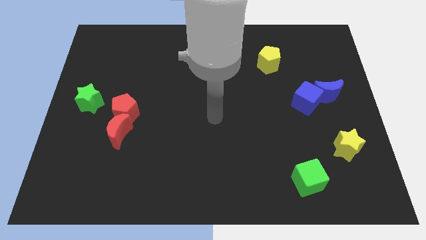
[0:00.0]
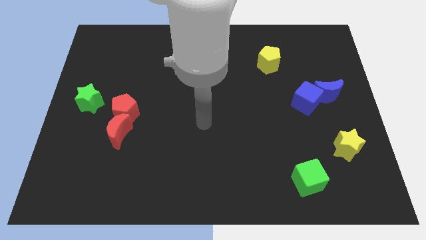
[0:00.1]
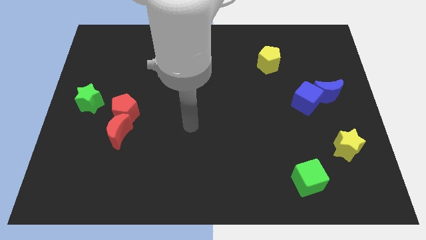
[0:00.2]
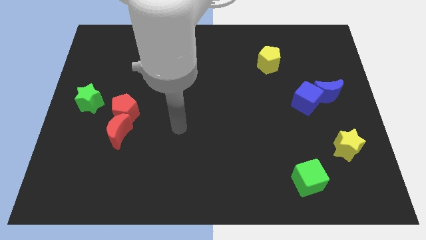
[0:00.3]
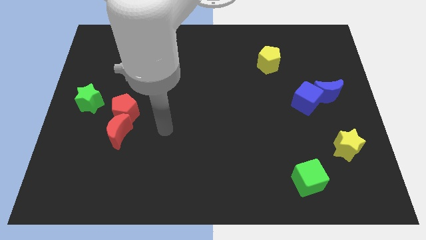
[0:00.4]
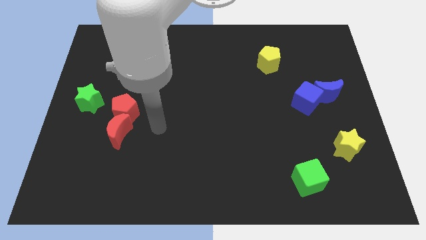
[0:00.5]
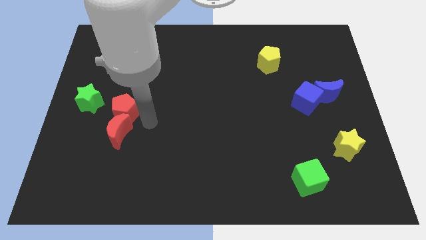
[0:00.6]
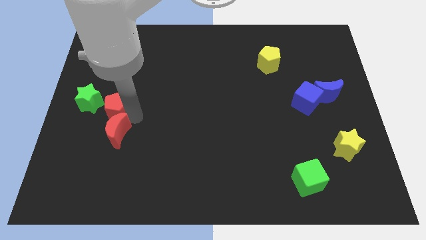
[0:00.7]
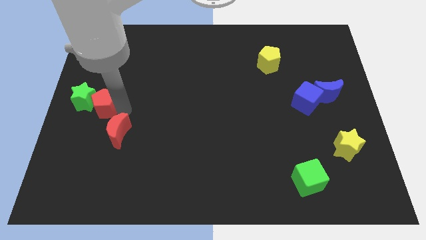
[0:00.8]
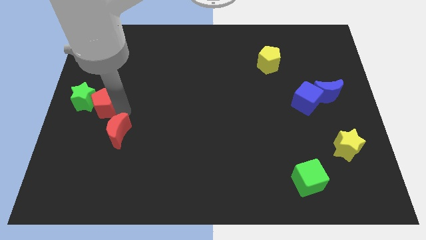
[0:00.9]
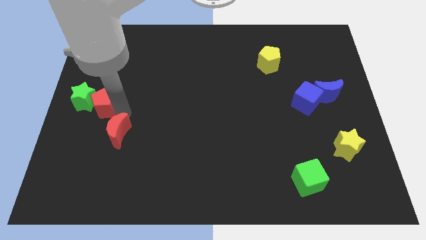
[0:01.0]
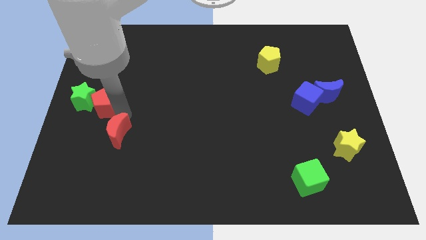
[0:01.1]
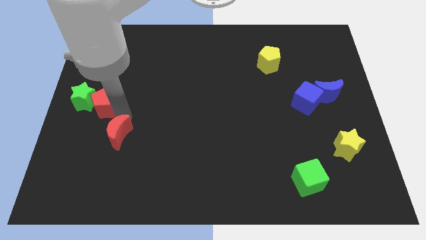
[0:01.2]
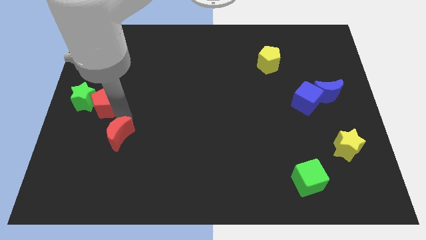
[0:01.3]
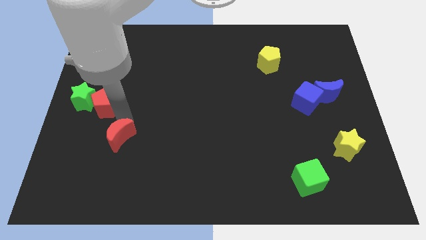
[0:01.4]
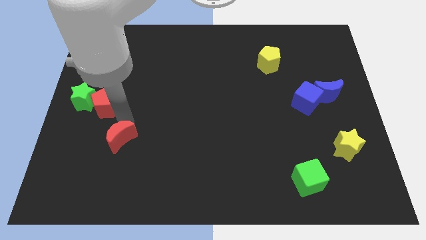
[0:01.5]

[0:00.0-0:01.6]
separate the red moon from the red pentagon

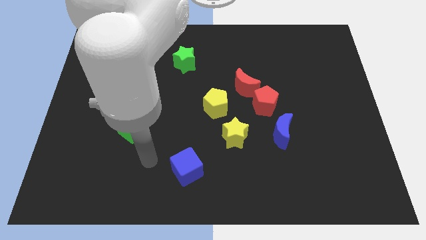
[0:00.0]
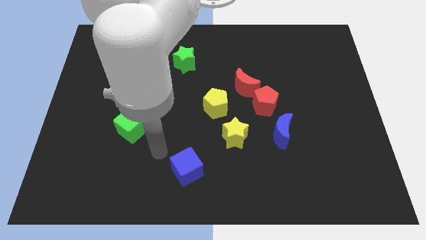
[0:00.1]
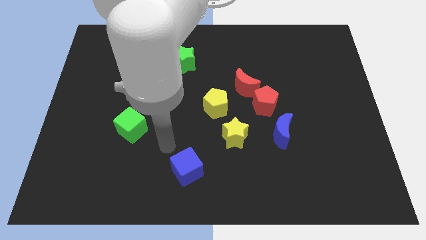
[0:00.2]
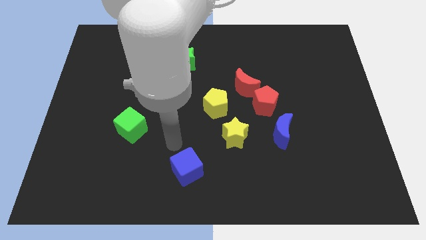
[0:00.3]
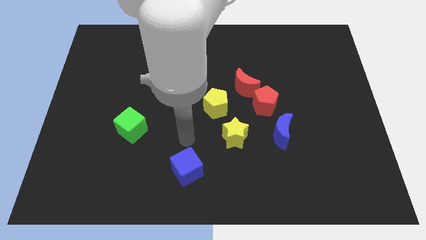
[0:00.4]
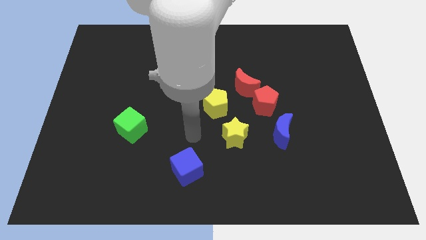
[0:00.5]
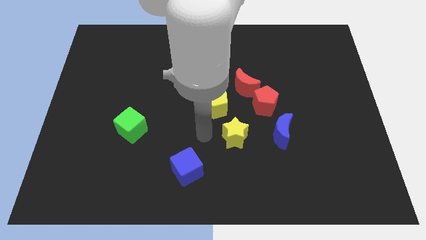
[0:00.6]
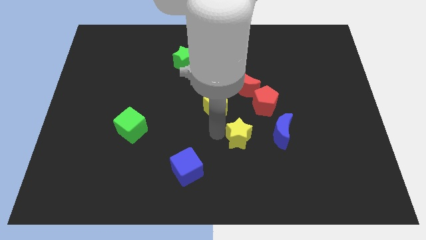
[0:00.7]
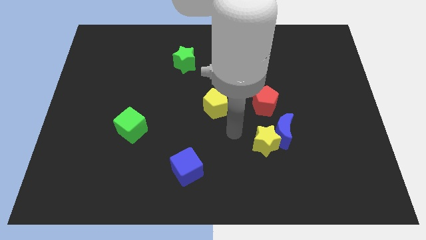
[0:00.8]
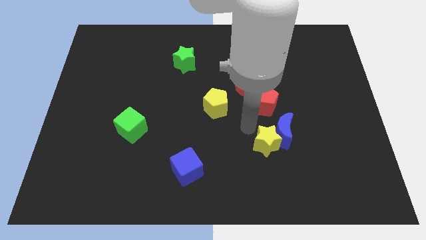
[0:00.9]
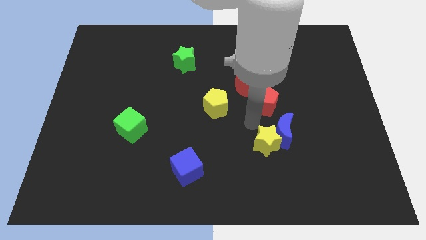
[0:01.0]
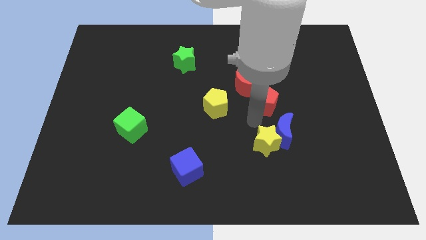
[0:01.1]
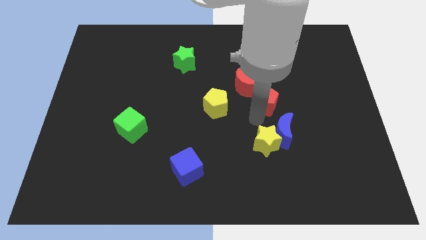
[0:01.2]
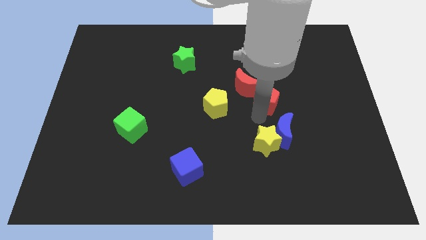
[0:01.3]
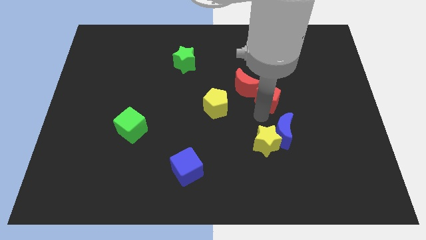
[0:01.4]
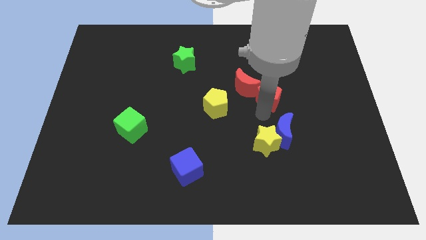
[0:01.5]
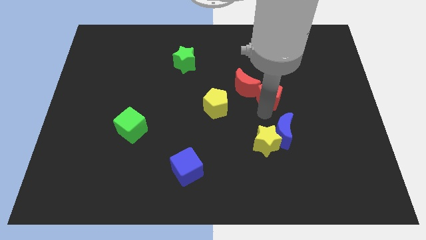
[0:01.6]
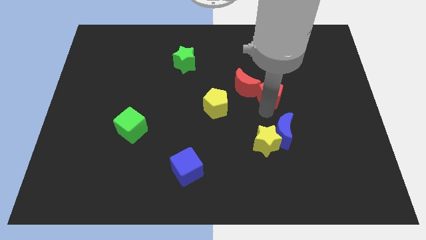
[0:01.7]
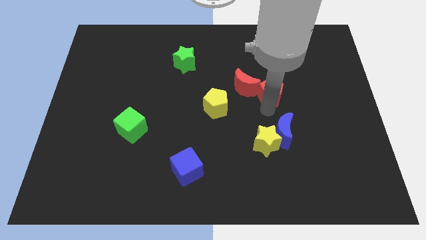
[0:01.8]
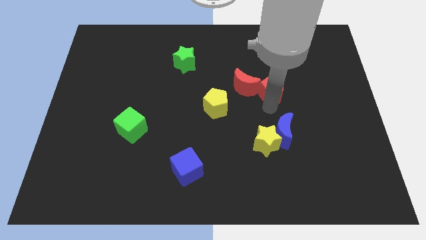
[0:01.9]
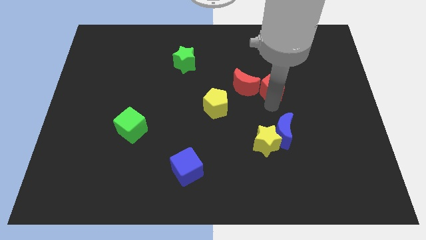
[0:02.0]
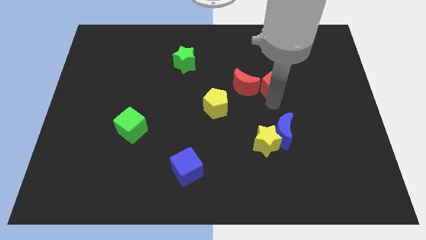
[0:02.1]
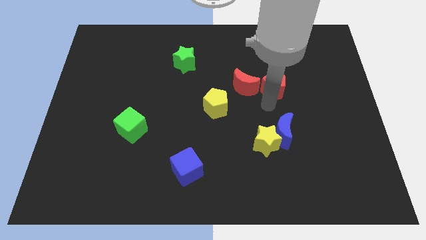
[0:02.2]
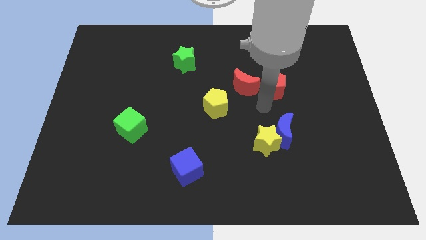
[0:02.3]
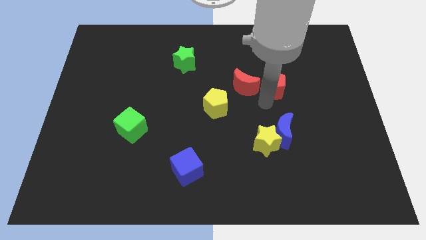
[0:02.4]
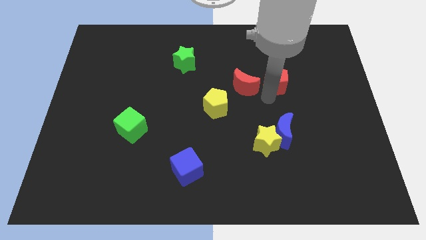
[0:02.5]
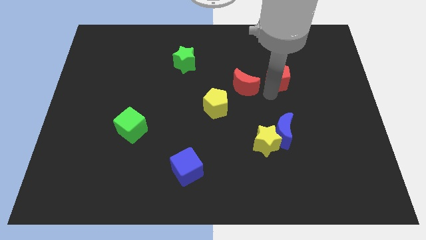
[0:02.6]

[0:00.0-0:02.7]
move the red pentagon away from the red moon and blue moon

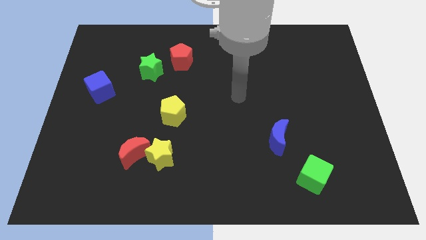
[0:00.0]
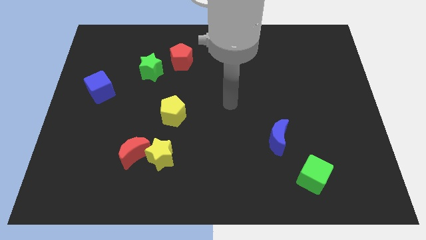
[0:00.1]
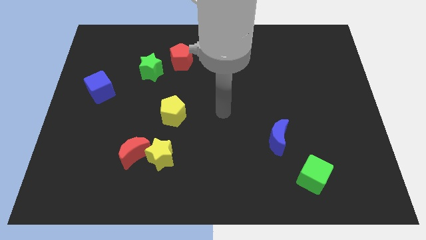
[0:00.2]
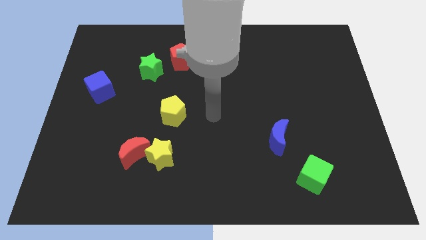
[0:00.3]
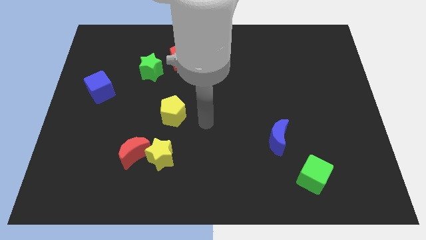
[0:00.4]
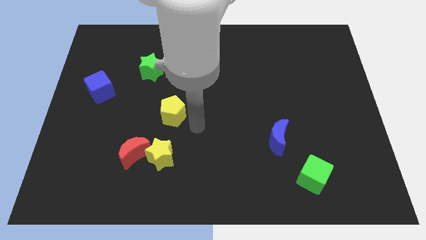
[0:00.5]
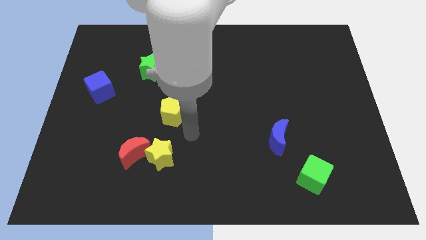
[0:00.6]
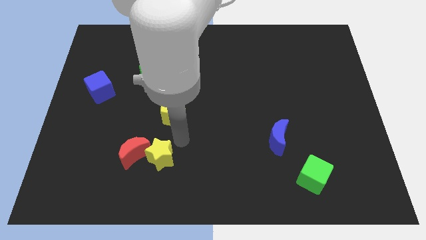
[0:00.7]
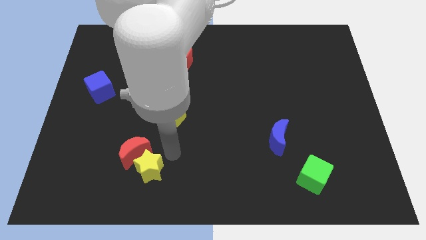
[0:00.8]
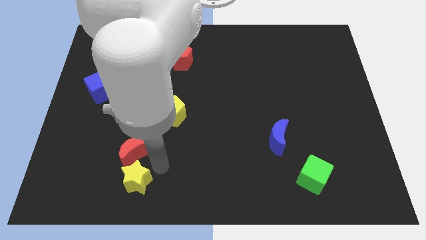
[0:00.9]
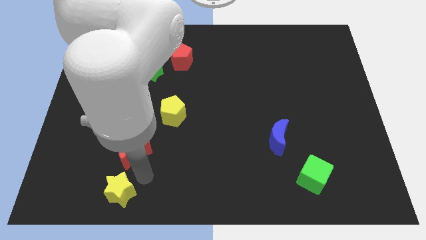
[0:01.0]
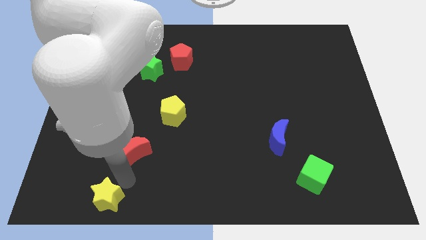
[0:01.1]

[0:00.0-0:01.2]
pull the red moon apart from the yellow star

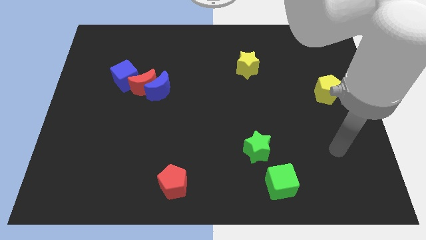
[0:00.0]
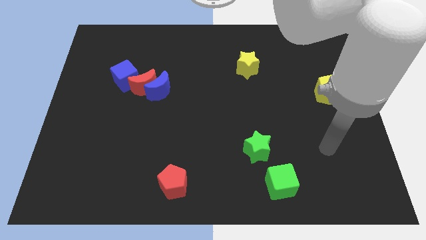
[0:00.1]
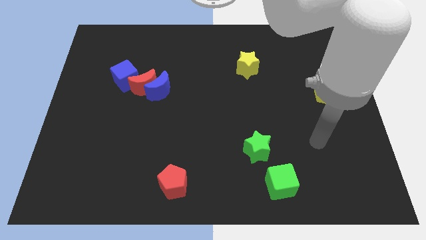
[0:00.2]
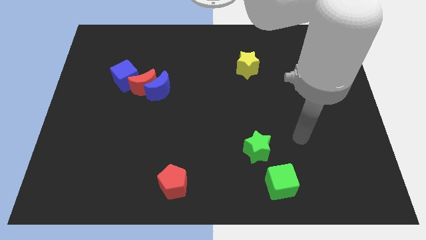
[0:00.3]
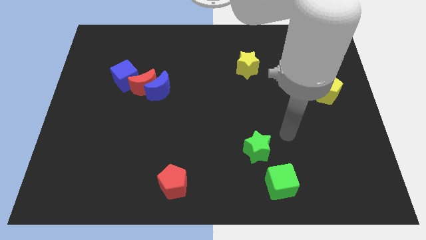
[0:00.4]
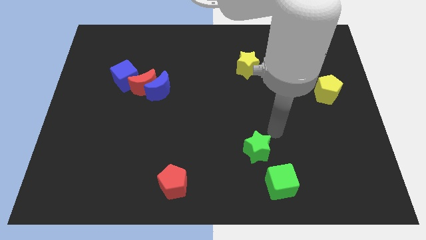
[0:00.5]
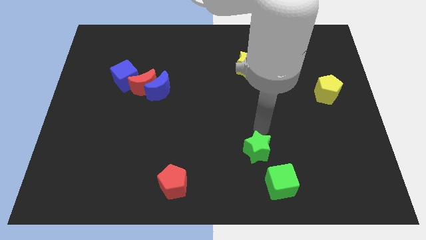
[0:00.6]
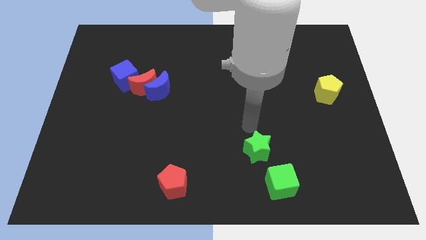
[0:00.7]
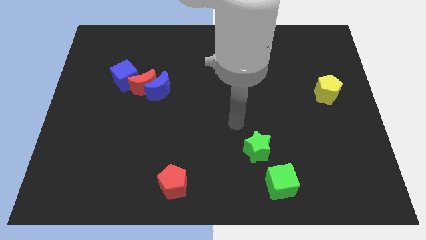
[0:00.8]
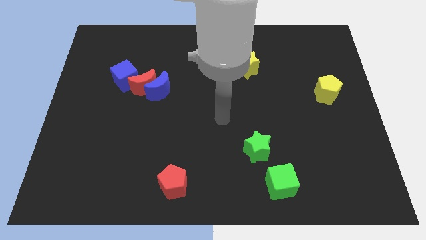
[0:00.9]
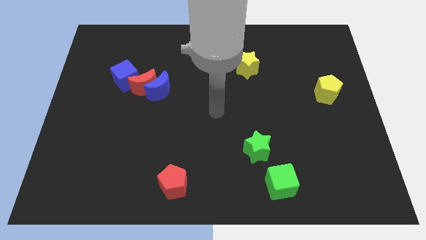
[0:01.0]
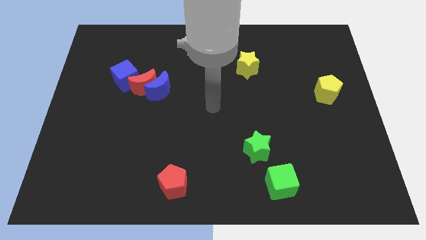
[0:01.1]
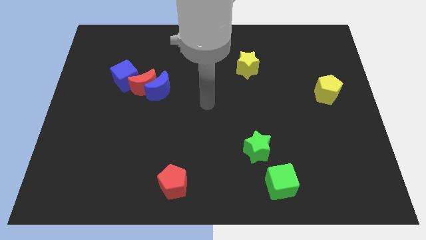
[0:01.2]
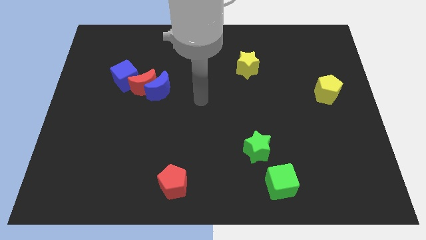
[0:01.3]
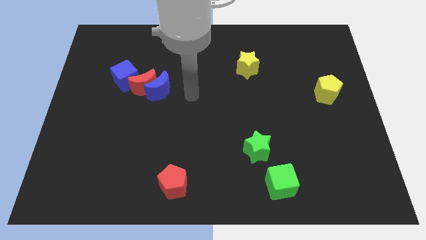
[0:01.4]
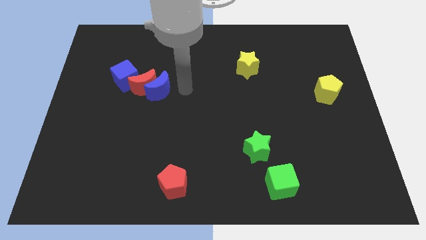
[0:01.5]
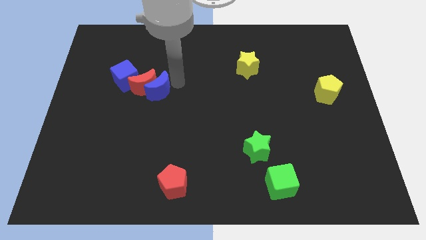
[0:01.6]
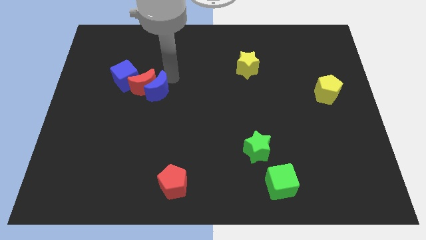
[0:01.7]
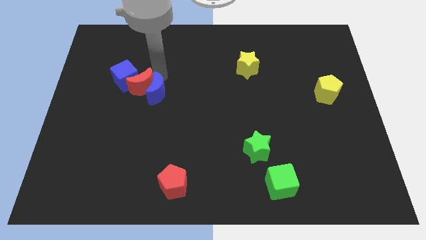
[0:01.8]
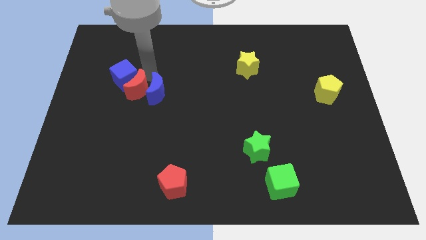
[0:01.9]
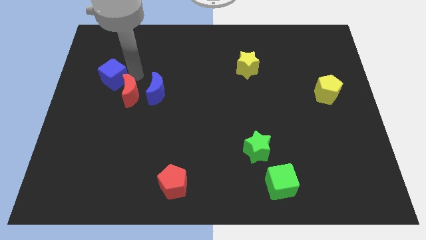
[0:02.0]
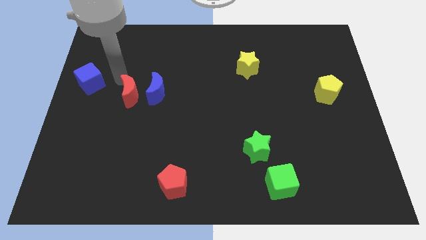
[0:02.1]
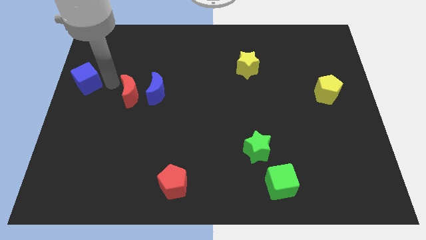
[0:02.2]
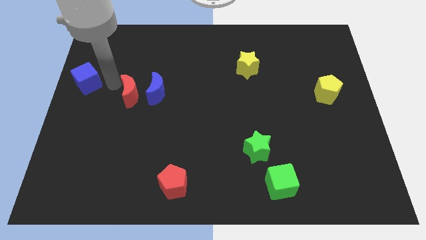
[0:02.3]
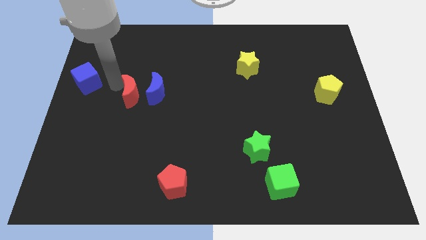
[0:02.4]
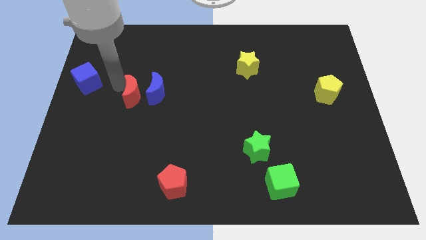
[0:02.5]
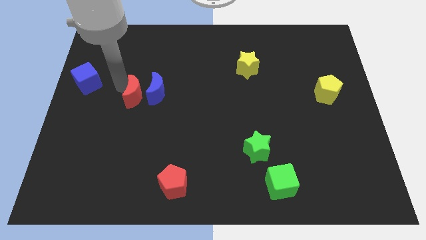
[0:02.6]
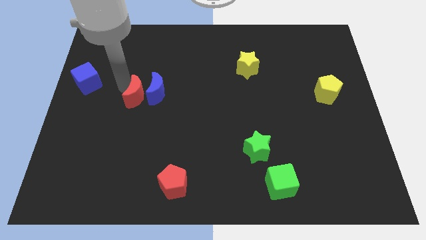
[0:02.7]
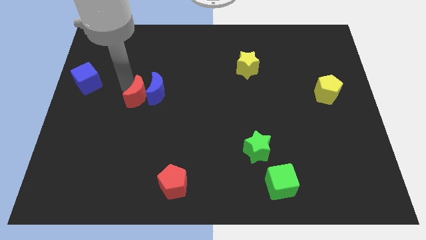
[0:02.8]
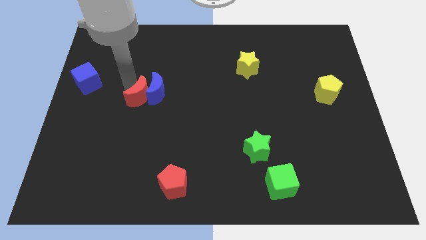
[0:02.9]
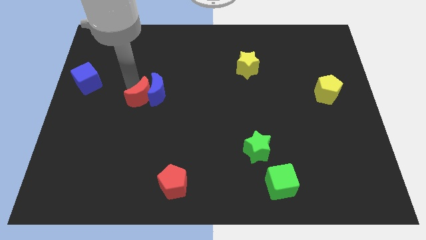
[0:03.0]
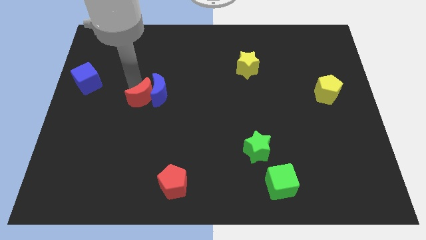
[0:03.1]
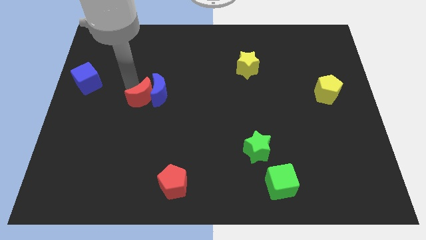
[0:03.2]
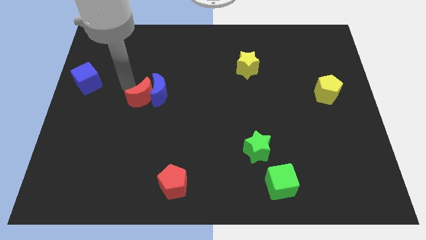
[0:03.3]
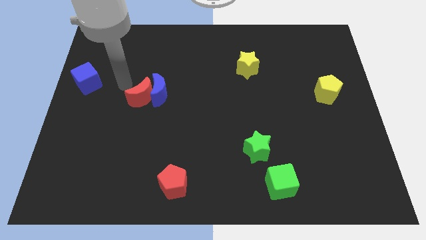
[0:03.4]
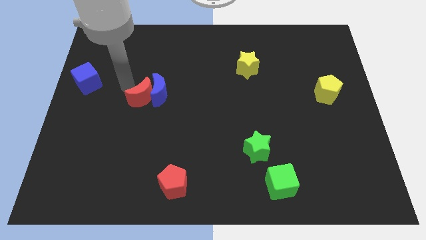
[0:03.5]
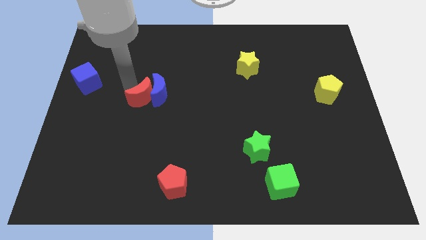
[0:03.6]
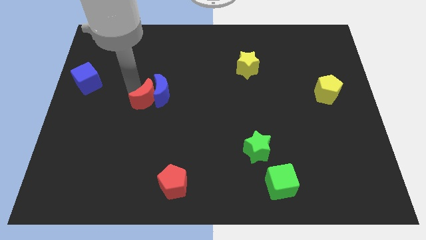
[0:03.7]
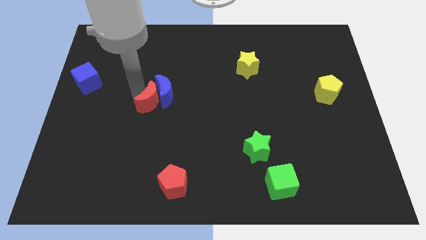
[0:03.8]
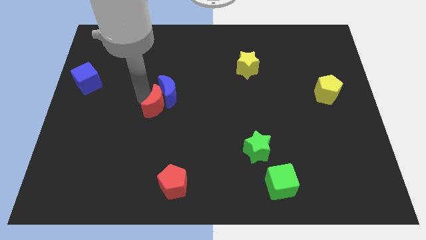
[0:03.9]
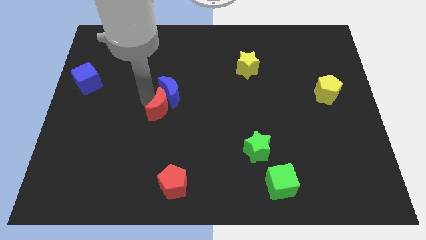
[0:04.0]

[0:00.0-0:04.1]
pull the red moon apart from the blue moon and blue cube
